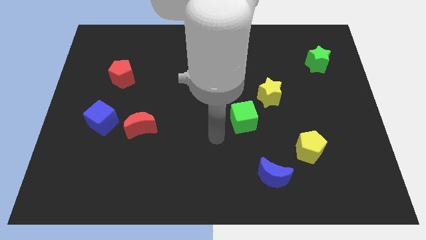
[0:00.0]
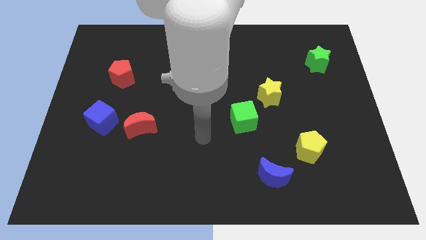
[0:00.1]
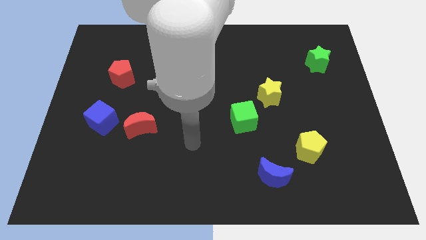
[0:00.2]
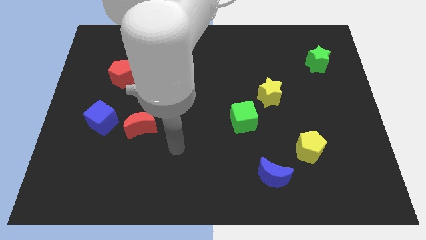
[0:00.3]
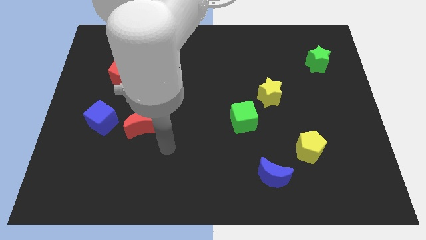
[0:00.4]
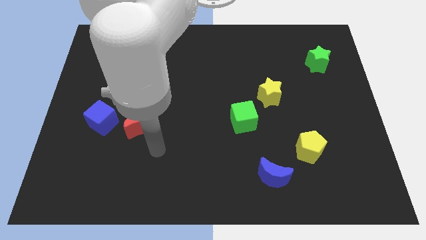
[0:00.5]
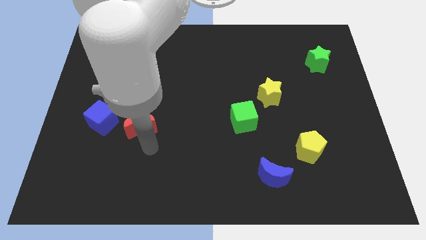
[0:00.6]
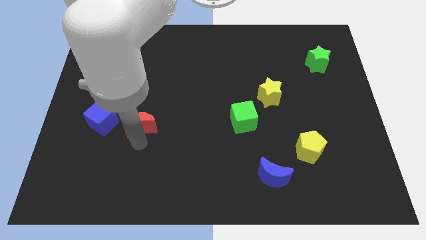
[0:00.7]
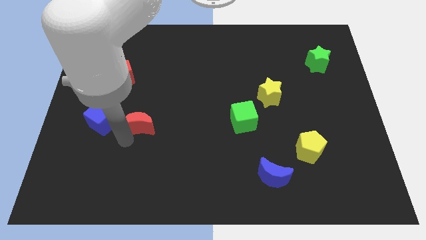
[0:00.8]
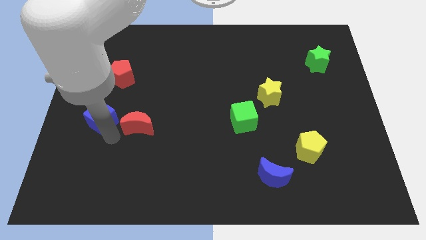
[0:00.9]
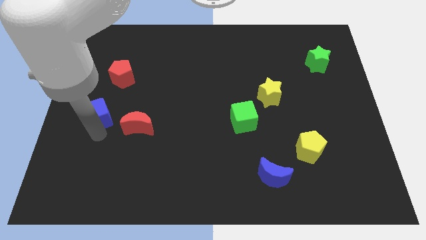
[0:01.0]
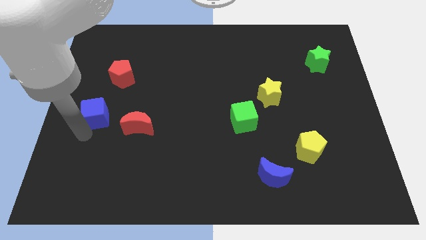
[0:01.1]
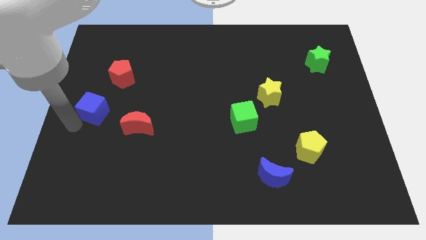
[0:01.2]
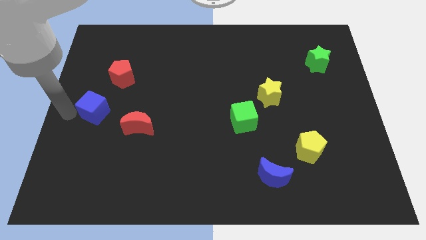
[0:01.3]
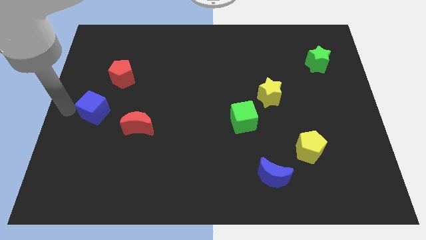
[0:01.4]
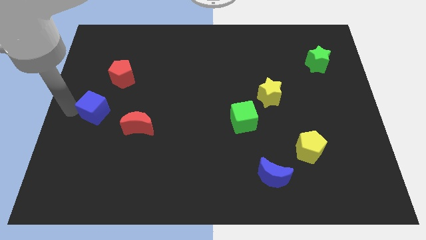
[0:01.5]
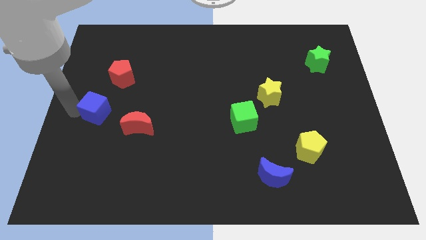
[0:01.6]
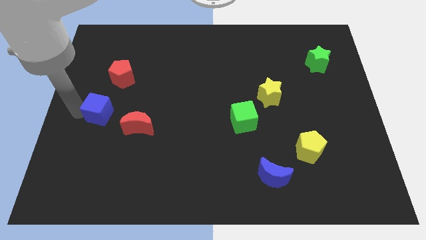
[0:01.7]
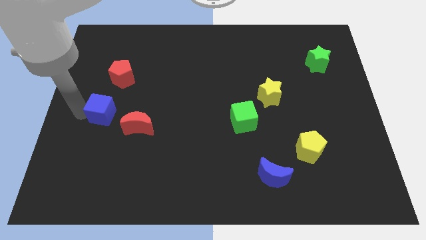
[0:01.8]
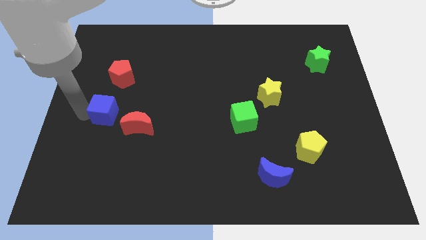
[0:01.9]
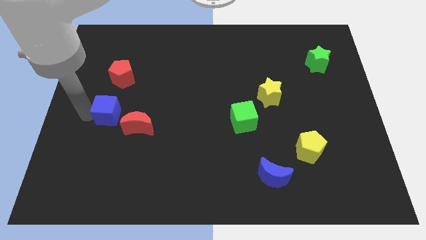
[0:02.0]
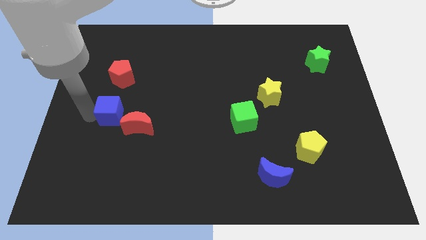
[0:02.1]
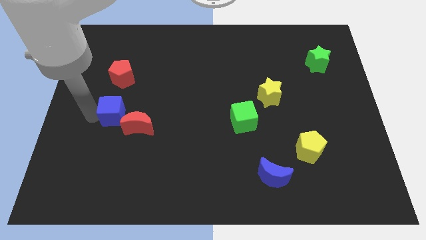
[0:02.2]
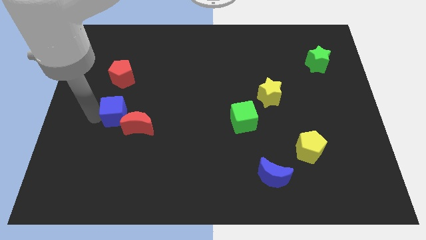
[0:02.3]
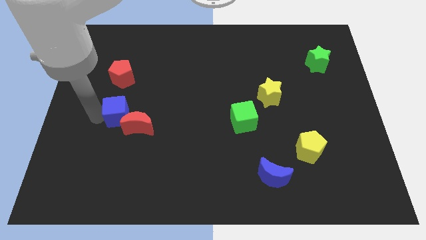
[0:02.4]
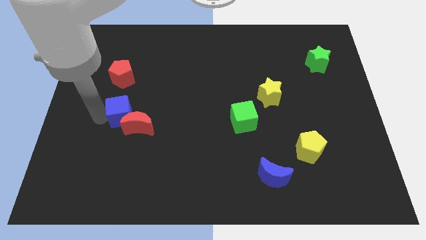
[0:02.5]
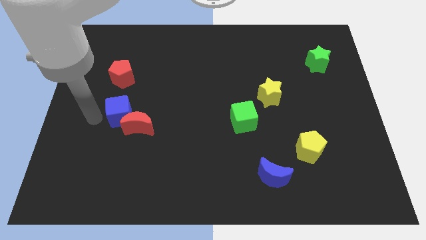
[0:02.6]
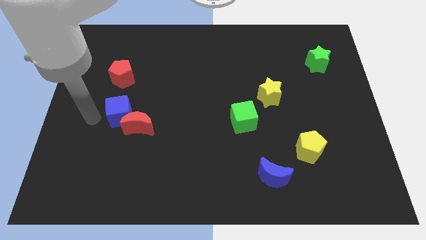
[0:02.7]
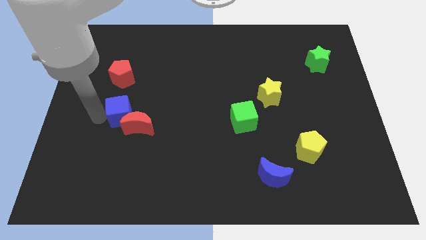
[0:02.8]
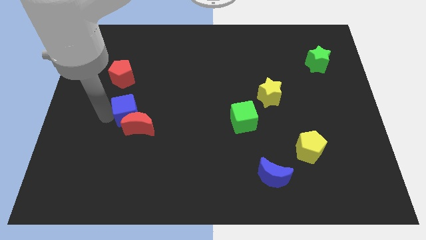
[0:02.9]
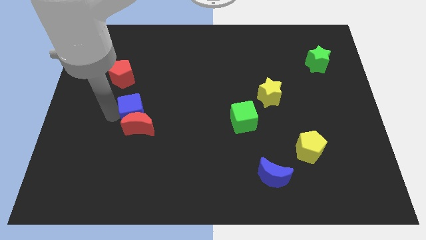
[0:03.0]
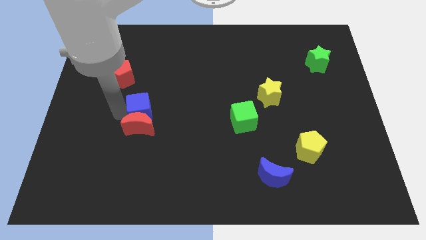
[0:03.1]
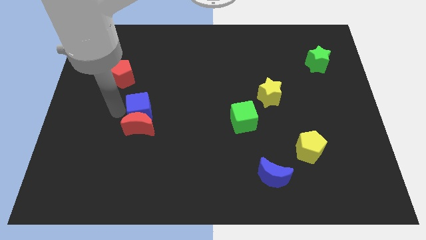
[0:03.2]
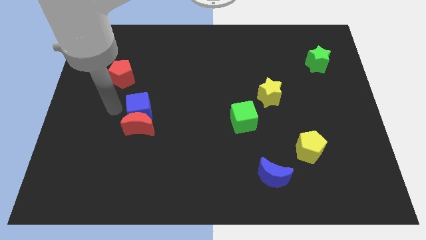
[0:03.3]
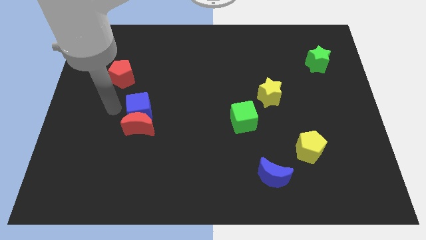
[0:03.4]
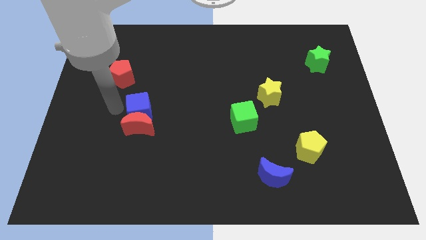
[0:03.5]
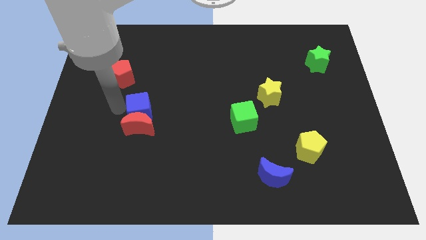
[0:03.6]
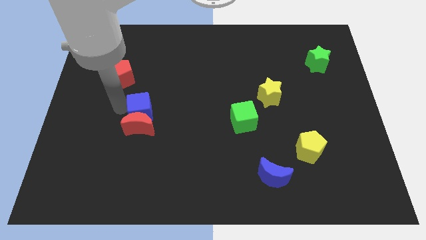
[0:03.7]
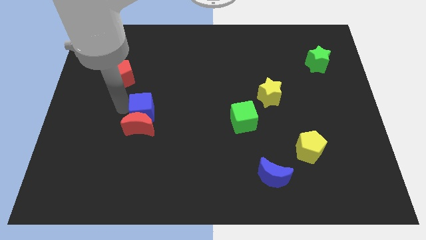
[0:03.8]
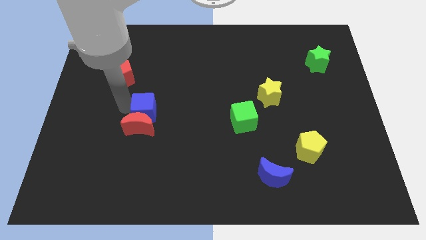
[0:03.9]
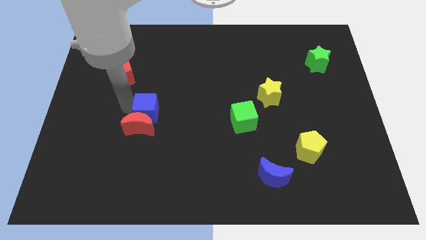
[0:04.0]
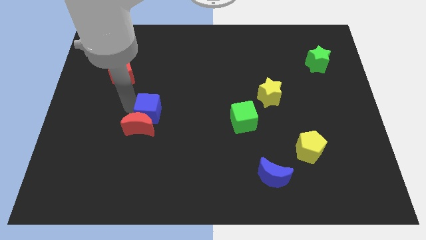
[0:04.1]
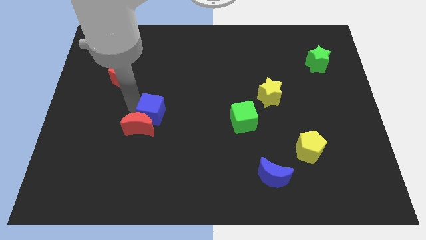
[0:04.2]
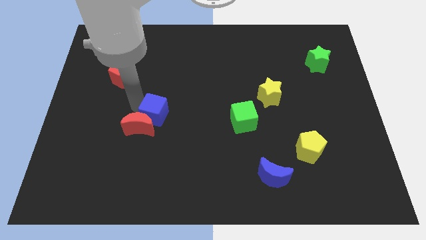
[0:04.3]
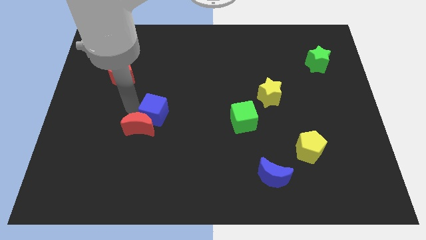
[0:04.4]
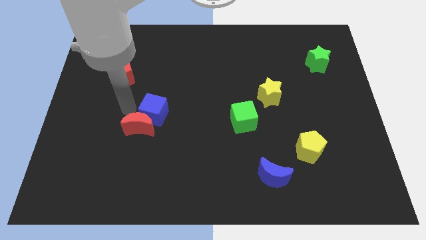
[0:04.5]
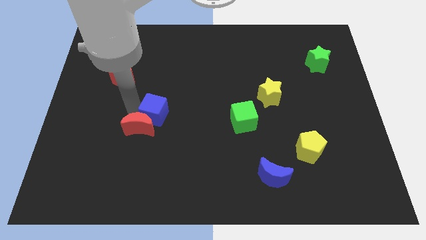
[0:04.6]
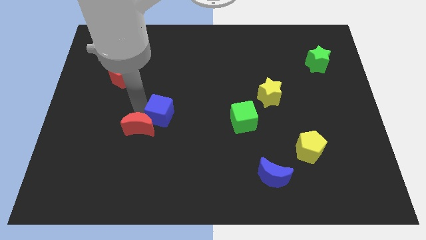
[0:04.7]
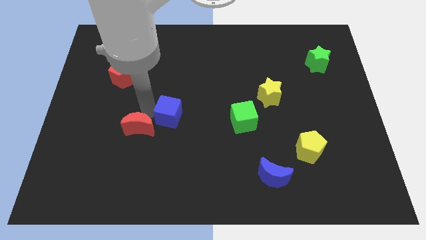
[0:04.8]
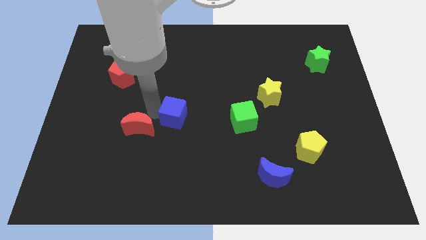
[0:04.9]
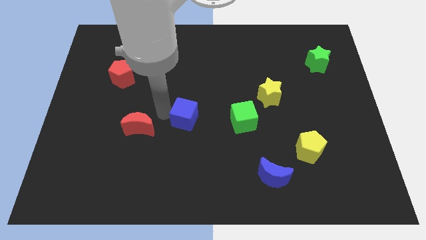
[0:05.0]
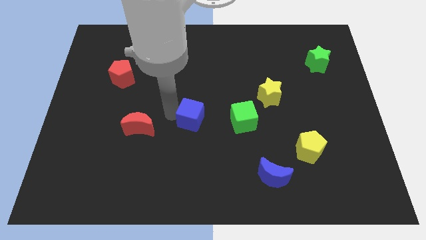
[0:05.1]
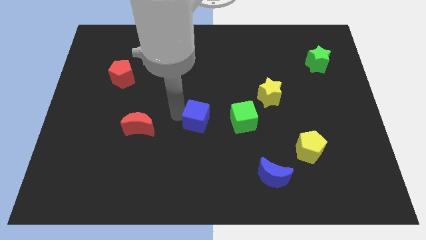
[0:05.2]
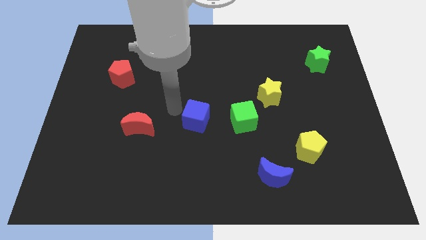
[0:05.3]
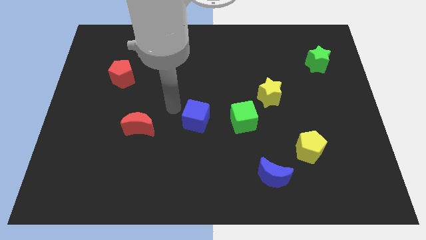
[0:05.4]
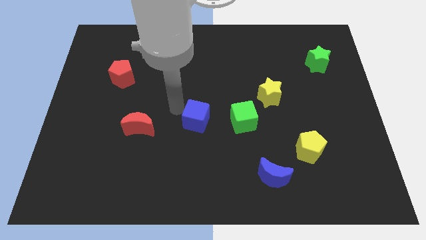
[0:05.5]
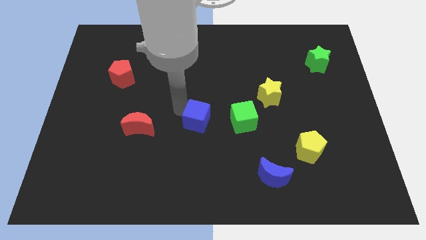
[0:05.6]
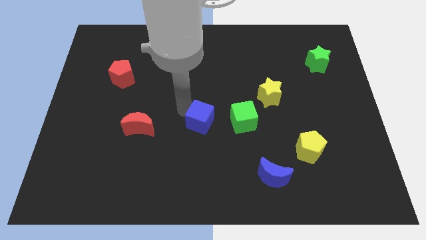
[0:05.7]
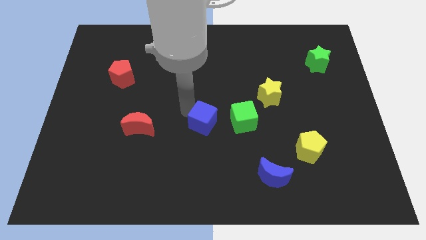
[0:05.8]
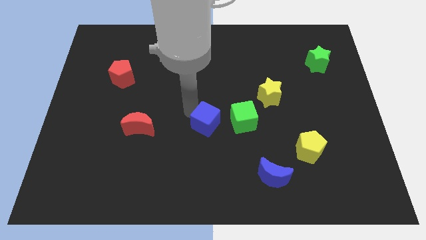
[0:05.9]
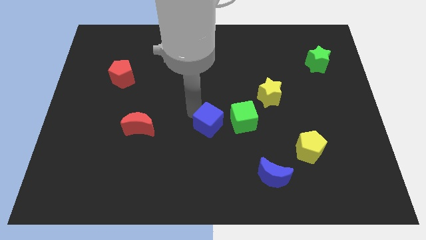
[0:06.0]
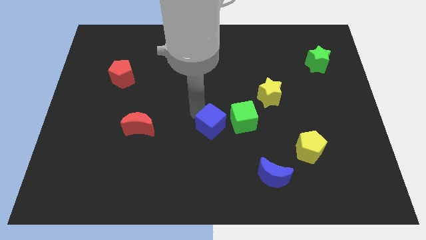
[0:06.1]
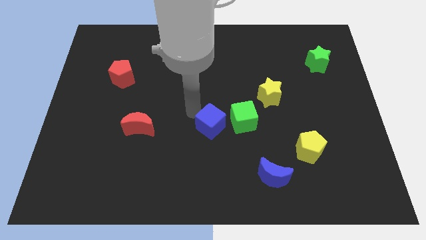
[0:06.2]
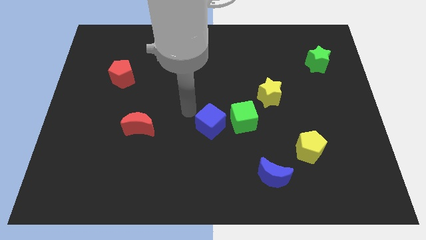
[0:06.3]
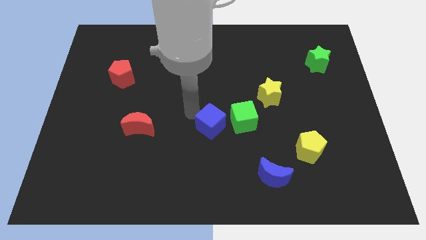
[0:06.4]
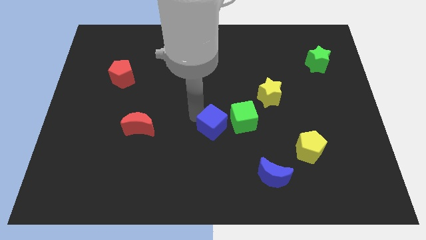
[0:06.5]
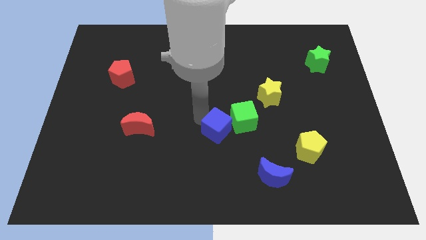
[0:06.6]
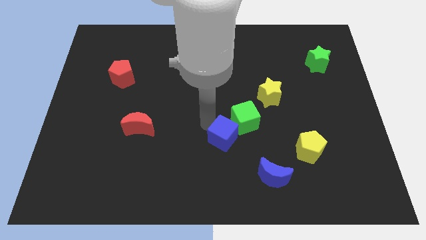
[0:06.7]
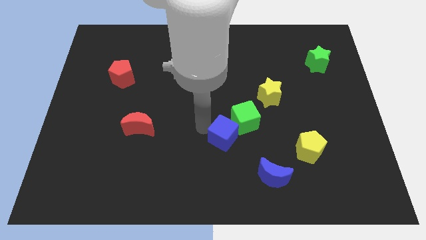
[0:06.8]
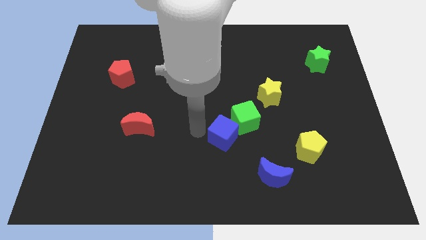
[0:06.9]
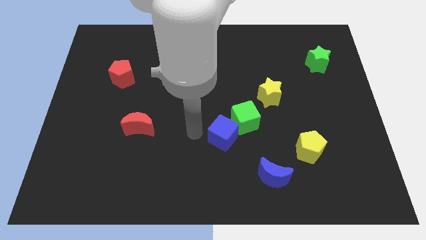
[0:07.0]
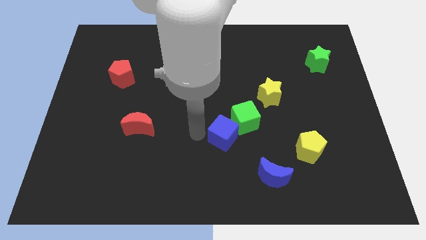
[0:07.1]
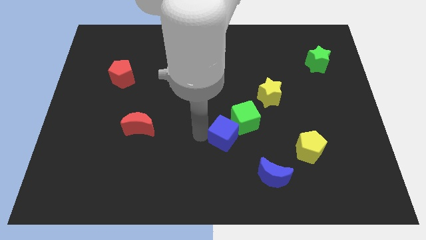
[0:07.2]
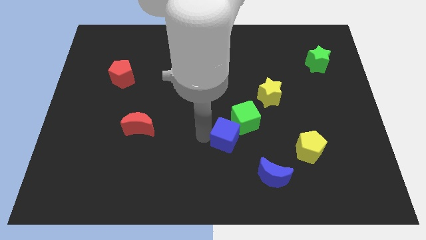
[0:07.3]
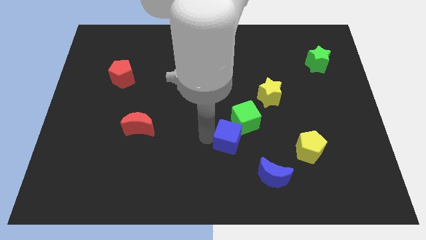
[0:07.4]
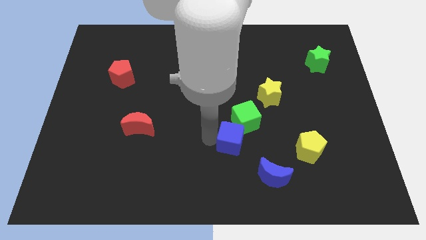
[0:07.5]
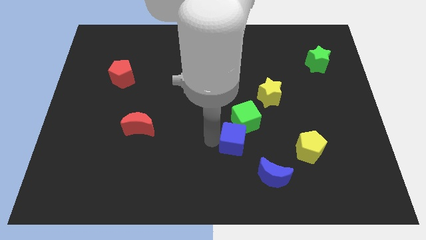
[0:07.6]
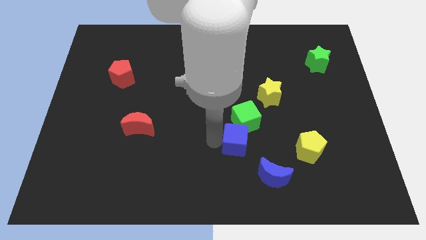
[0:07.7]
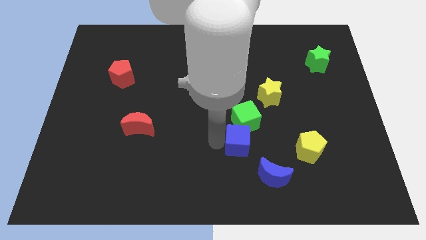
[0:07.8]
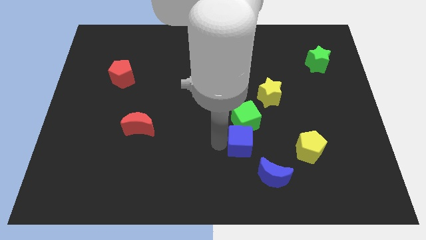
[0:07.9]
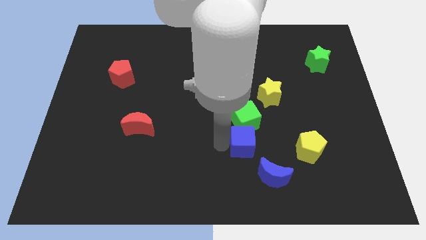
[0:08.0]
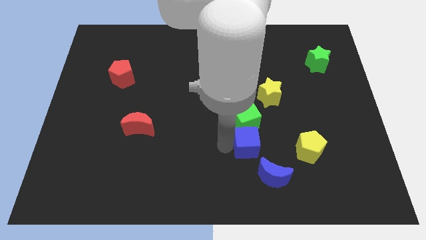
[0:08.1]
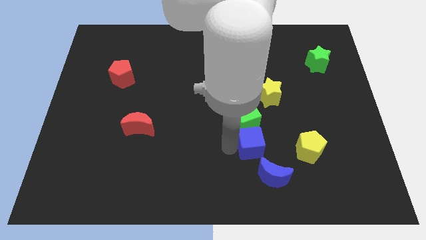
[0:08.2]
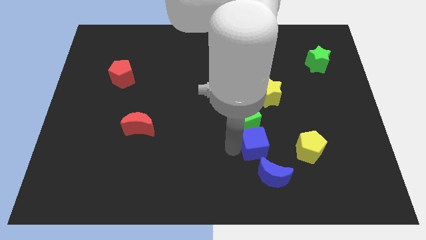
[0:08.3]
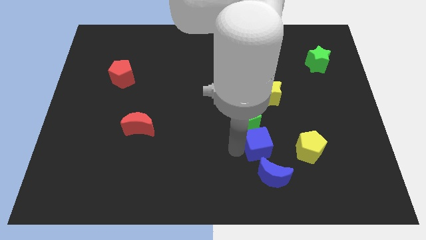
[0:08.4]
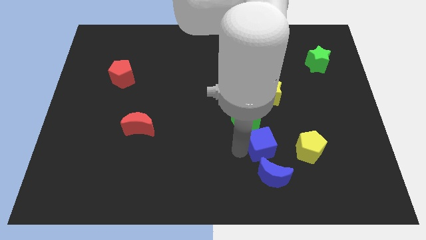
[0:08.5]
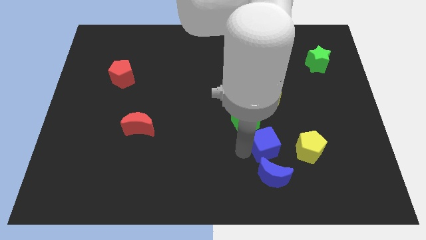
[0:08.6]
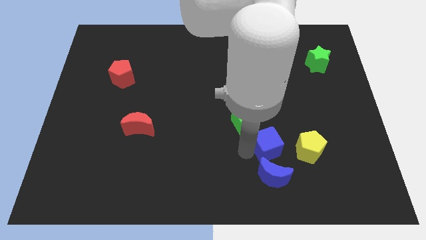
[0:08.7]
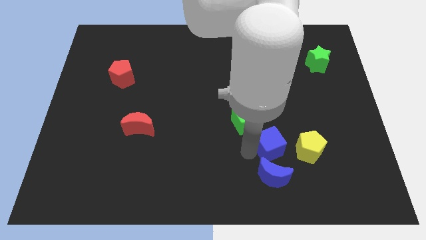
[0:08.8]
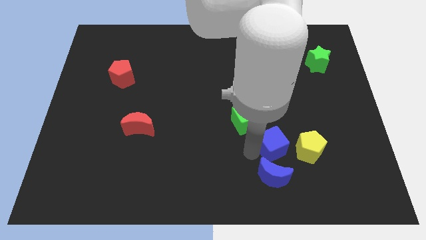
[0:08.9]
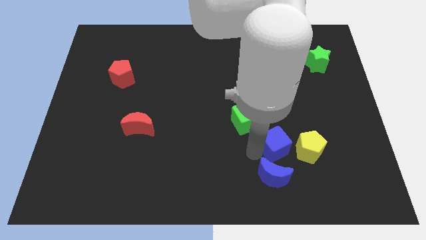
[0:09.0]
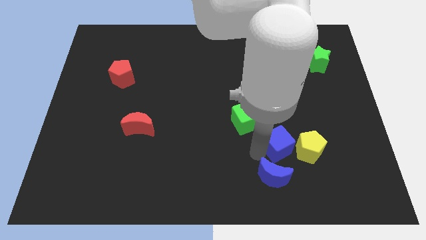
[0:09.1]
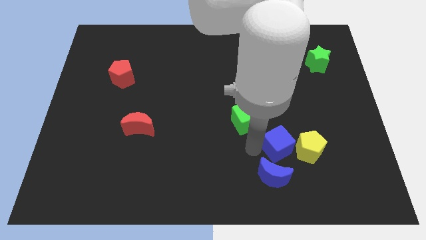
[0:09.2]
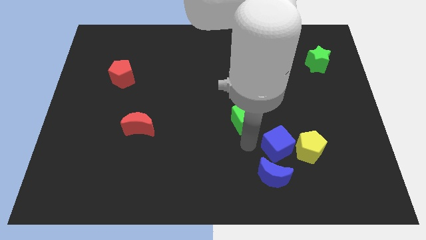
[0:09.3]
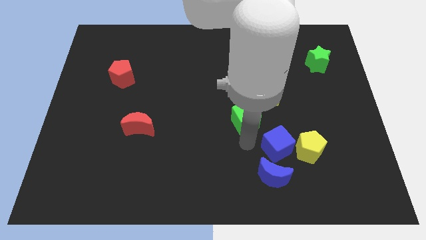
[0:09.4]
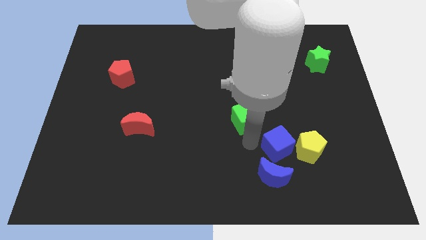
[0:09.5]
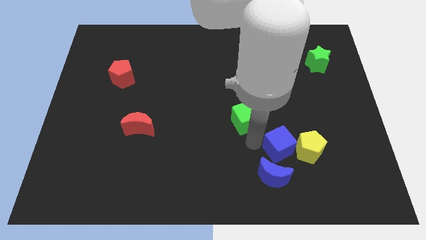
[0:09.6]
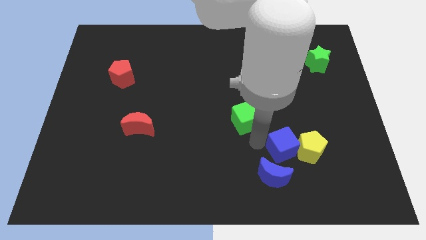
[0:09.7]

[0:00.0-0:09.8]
push the blue cube towards the yellow pentagon
